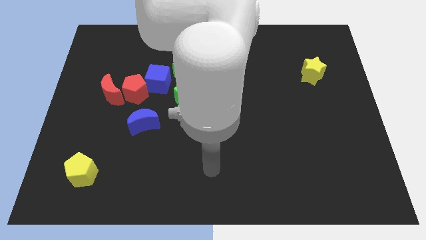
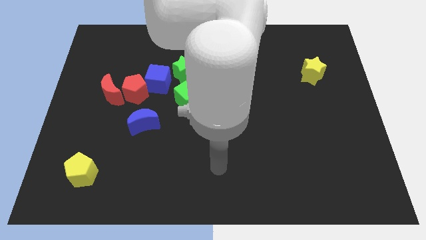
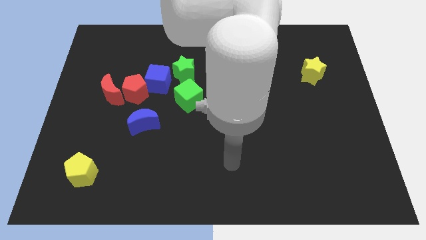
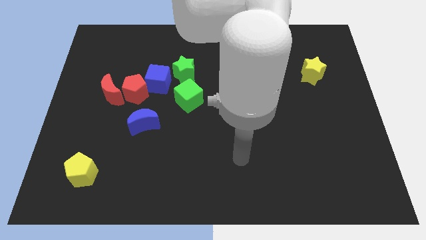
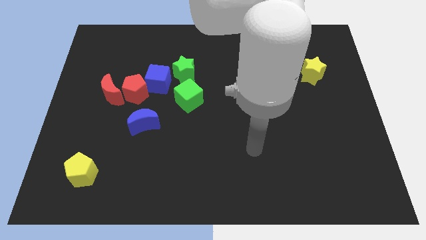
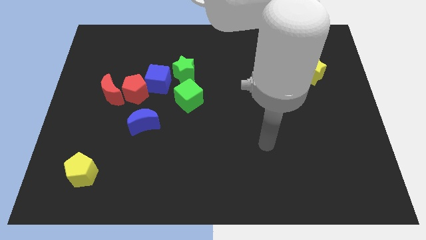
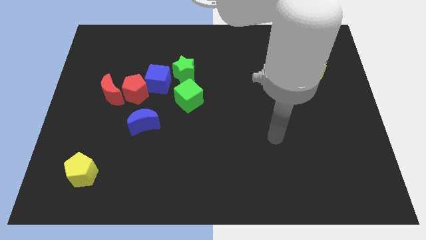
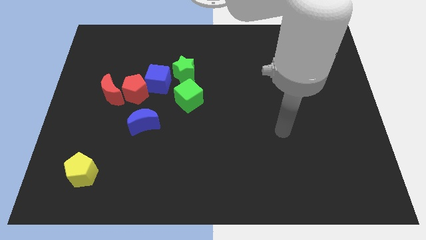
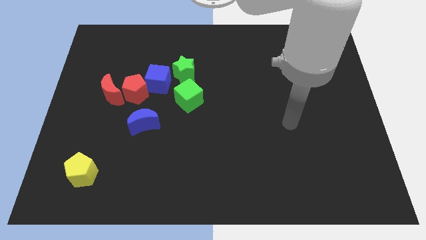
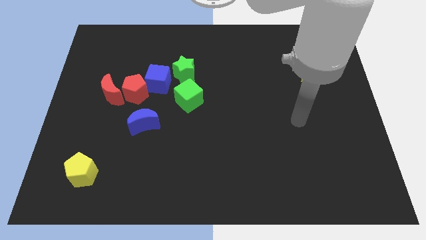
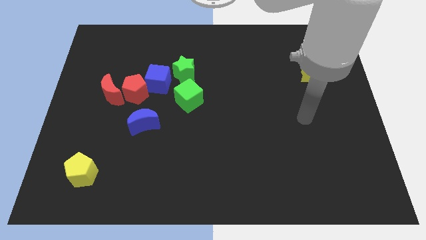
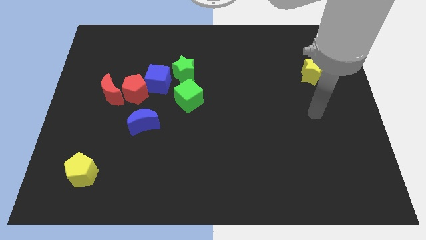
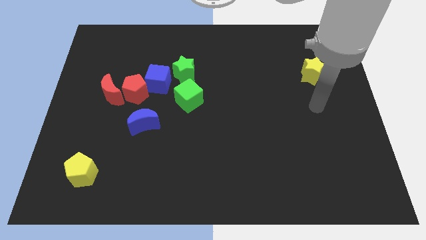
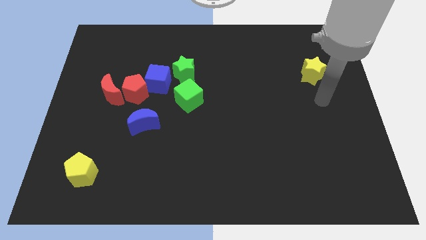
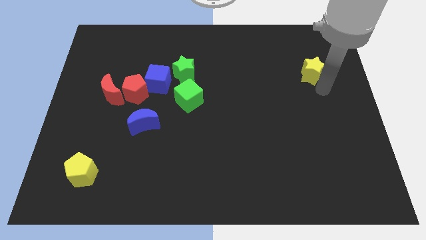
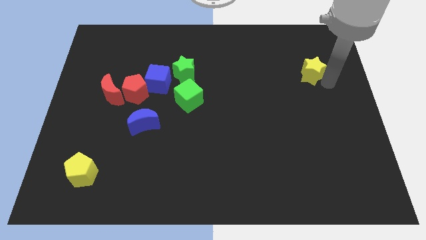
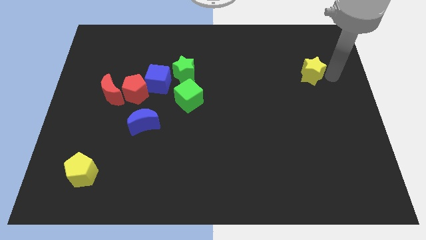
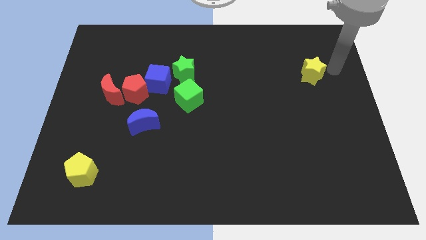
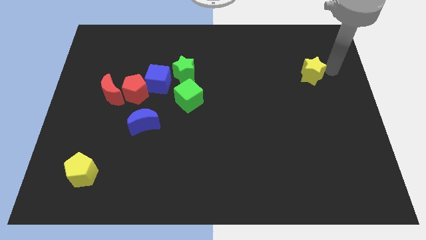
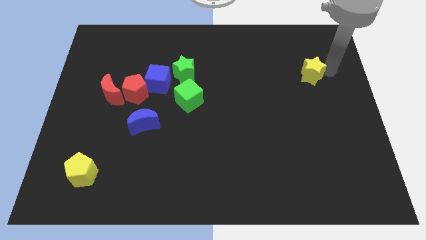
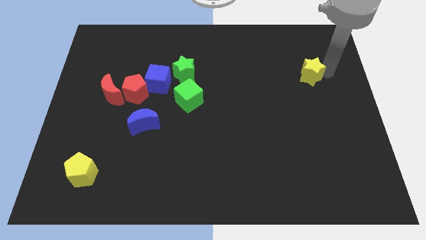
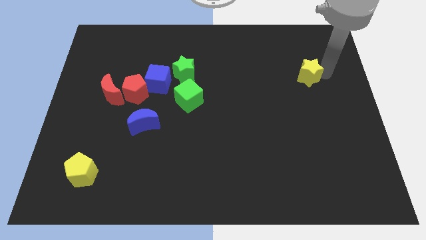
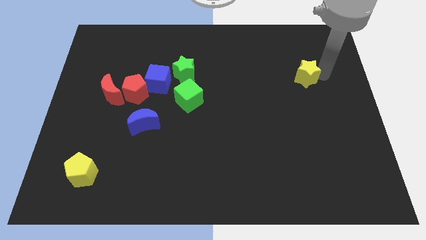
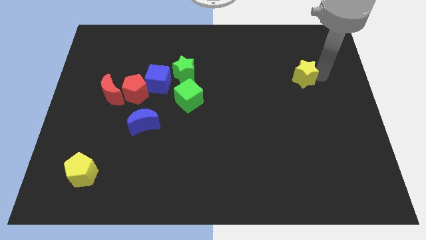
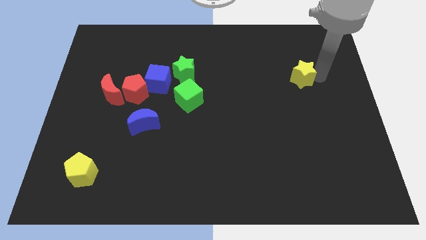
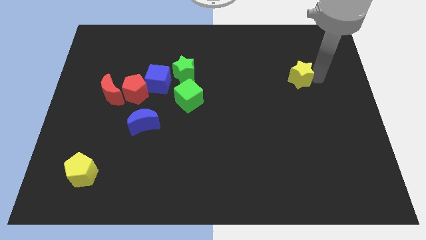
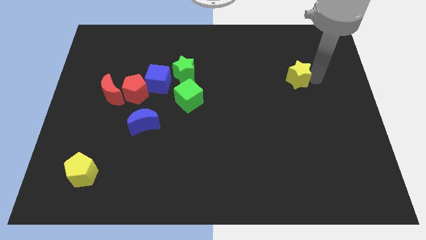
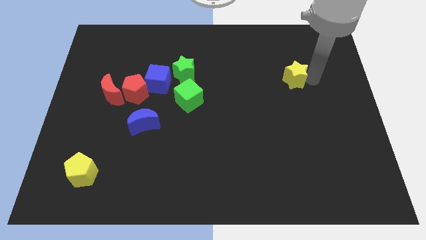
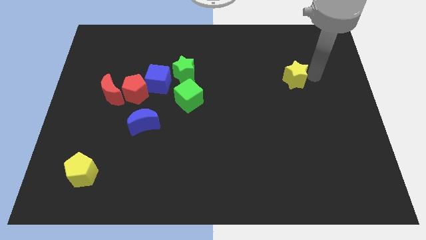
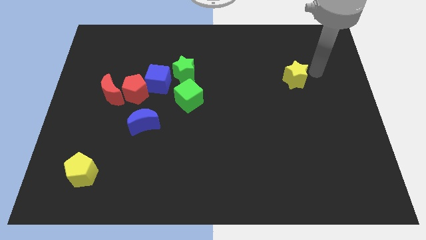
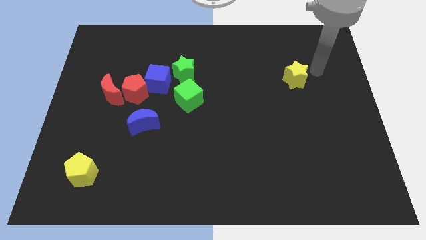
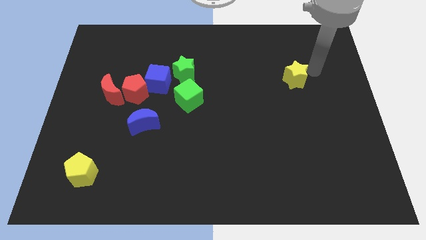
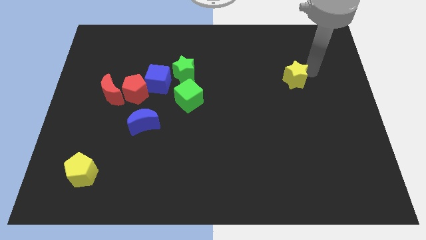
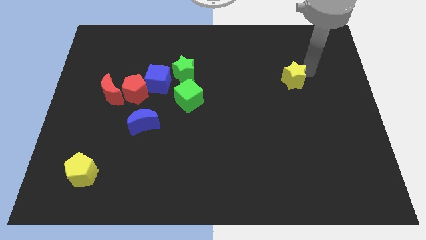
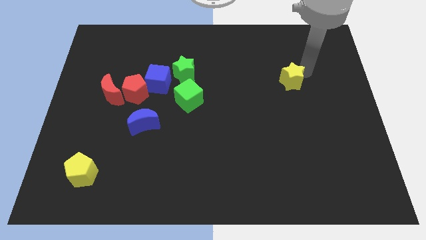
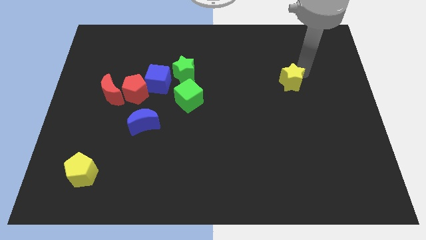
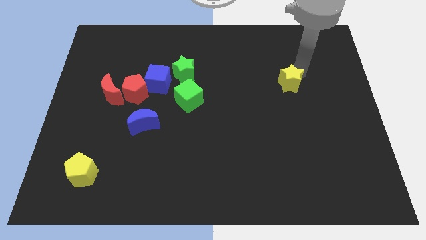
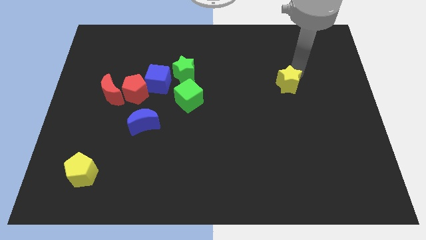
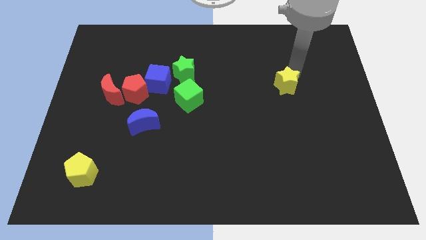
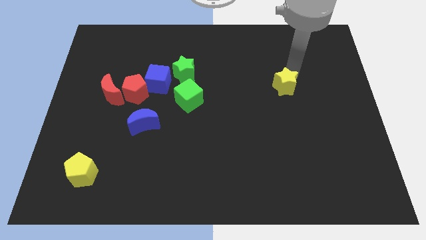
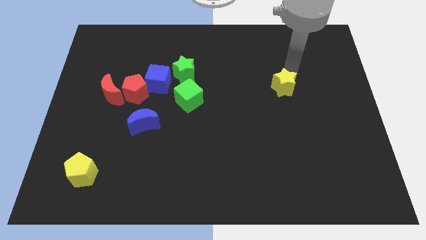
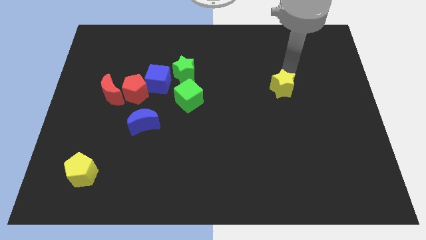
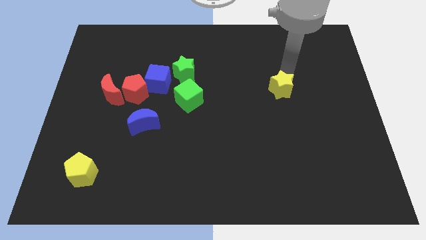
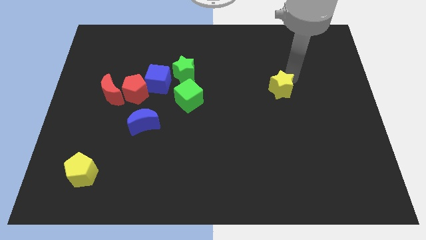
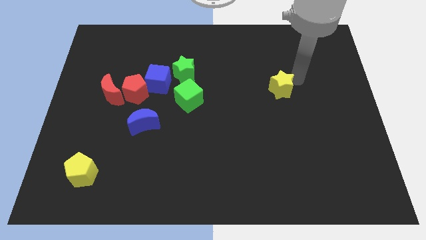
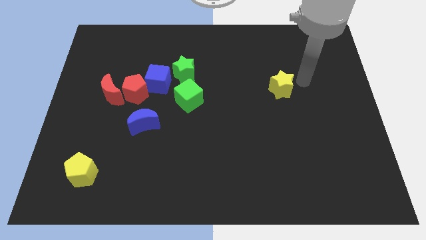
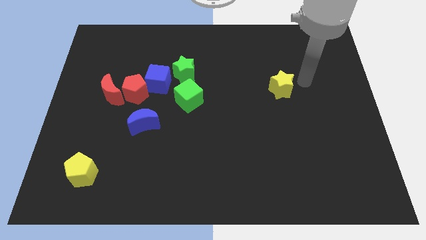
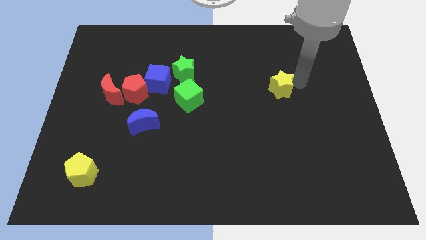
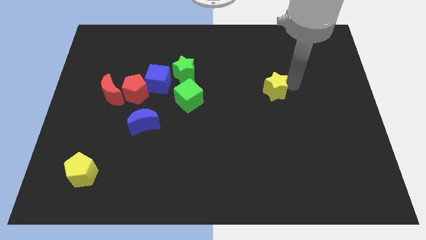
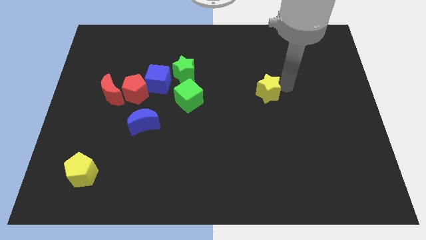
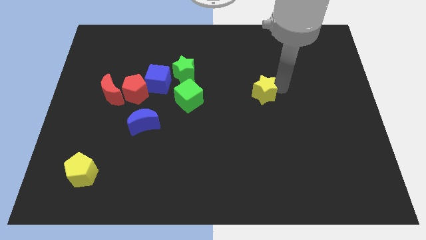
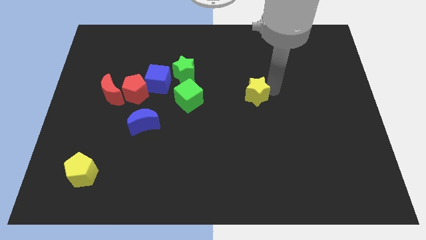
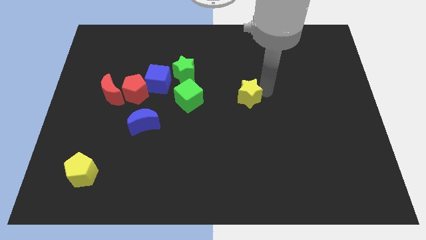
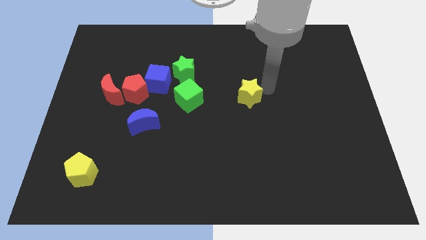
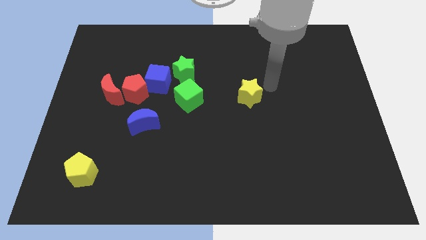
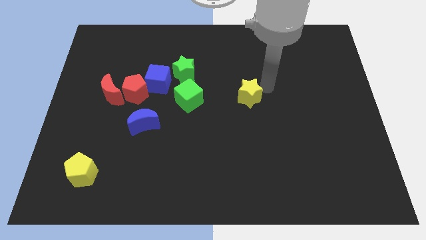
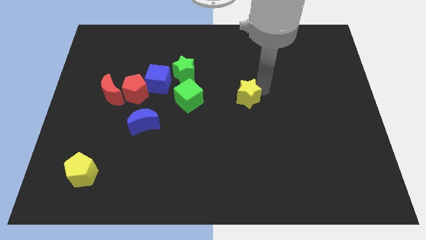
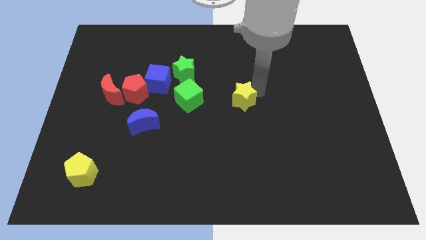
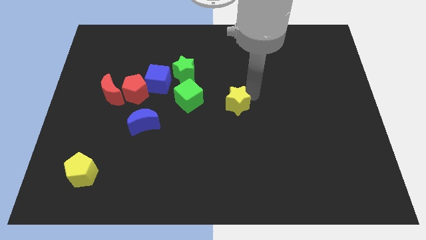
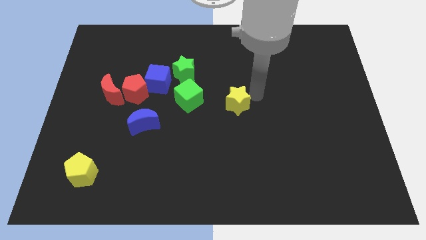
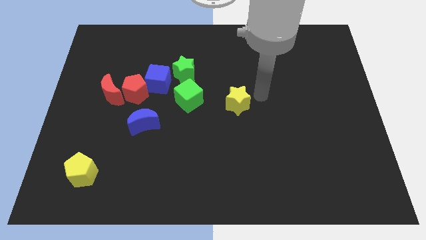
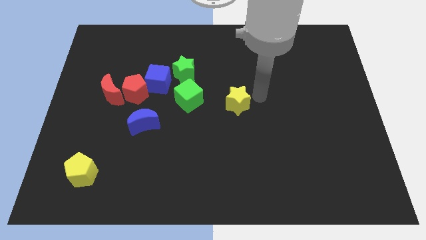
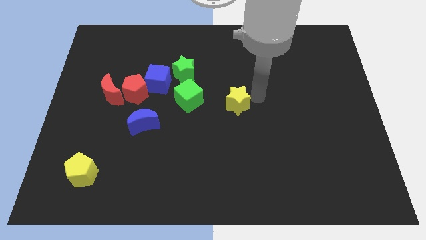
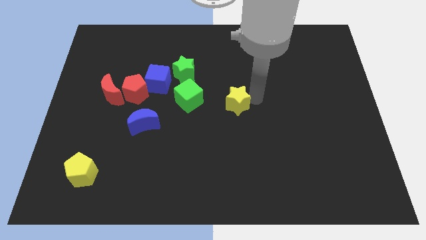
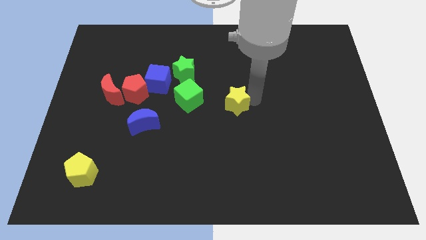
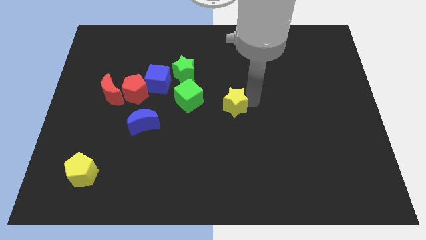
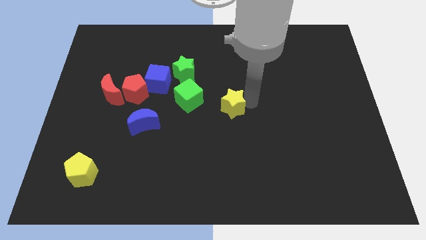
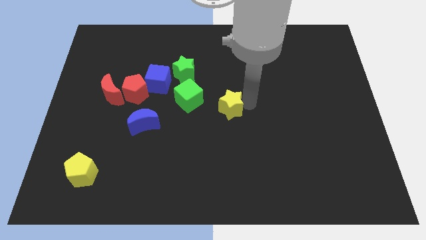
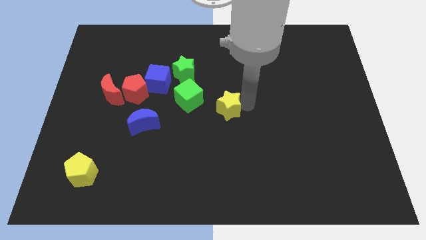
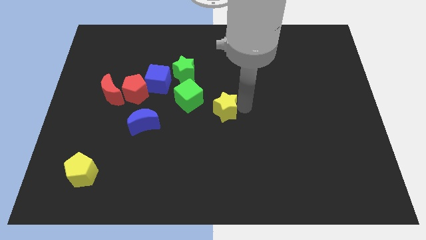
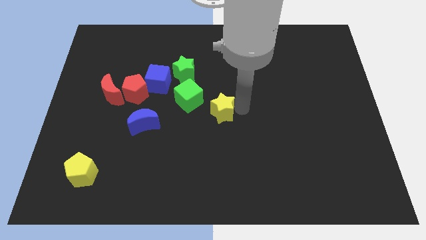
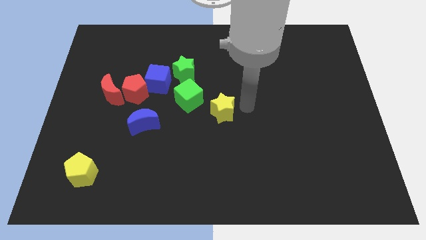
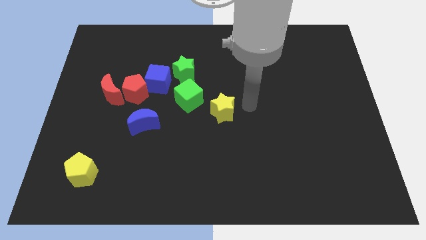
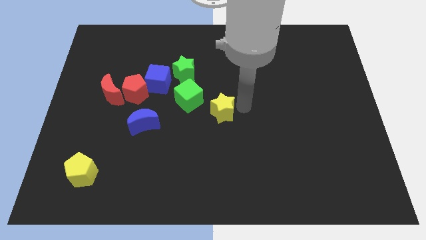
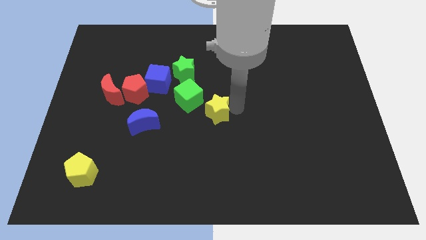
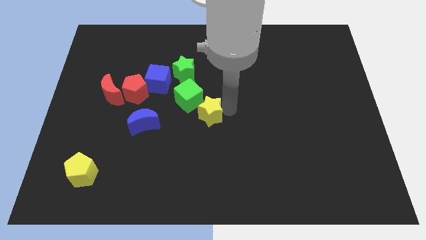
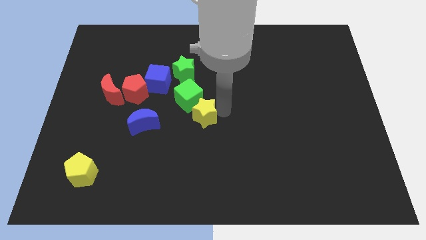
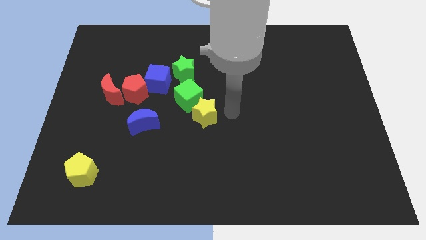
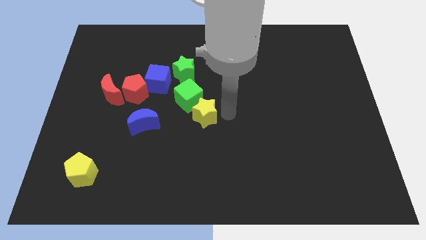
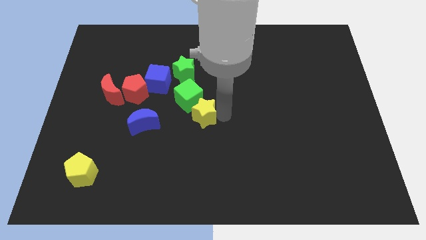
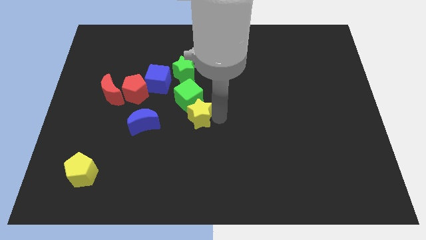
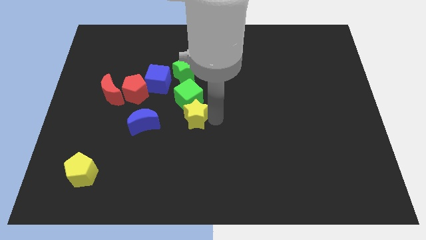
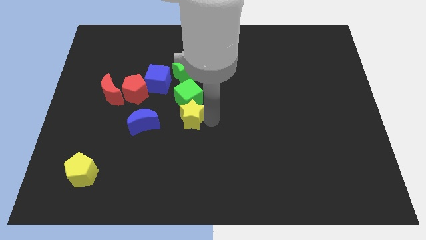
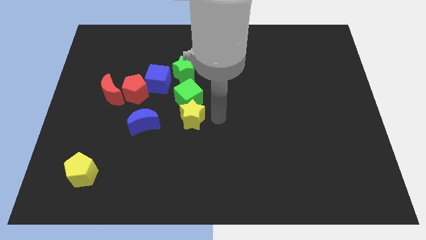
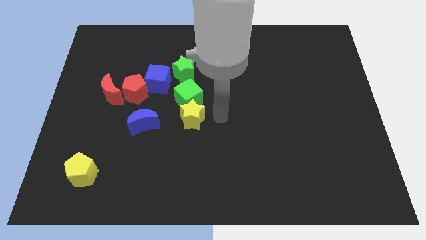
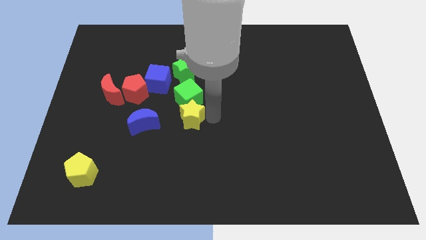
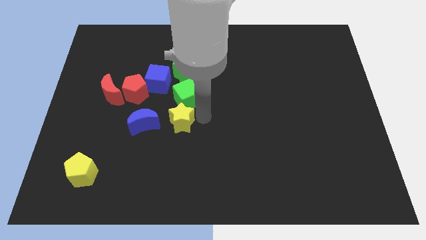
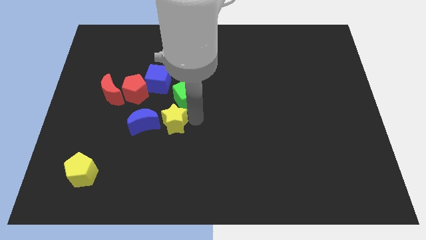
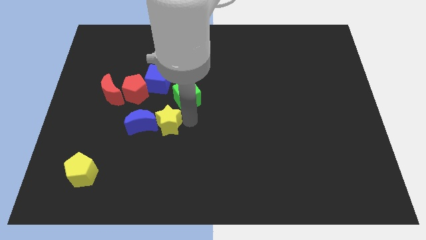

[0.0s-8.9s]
push the yellow star to the blue moon
